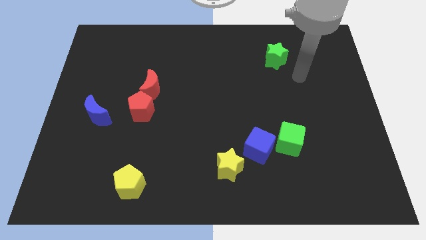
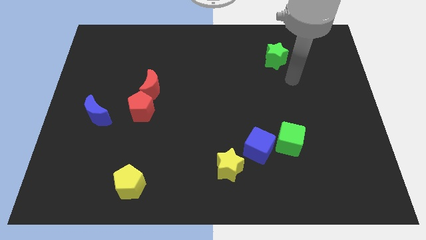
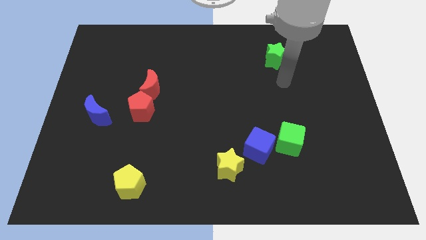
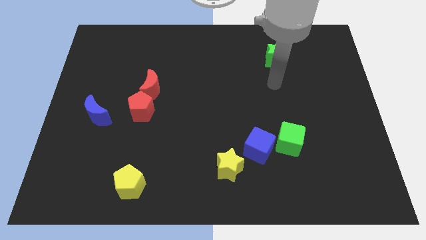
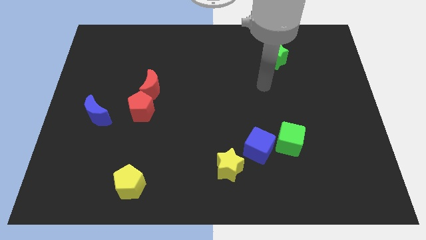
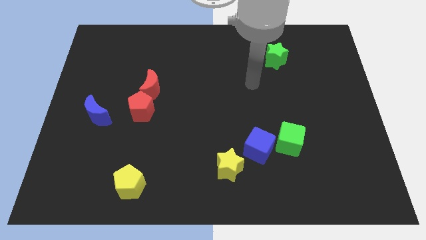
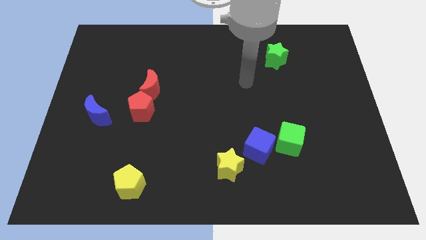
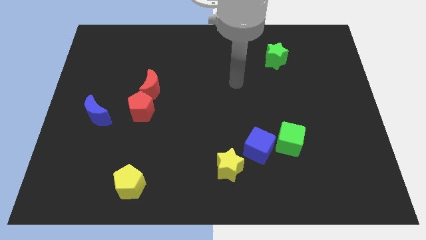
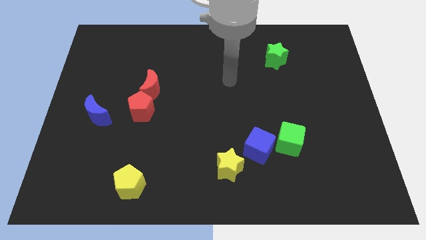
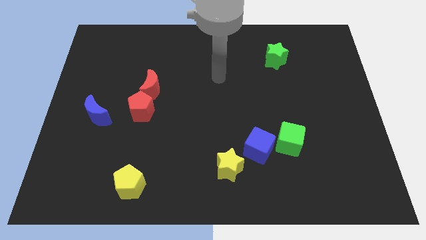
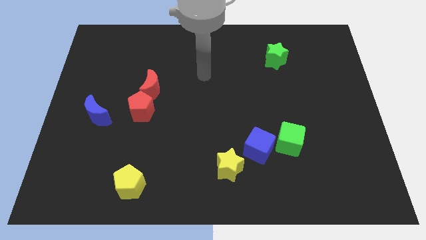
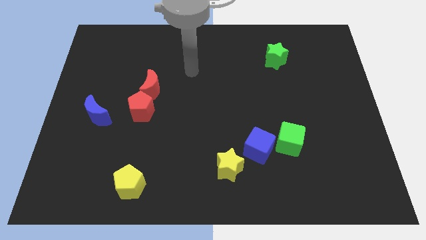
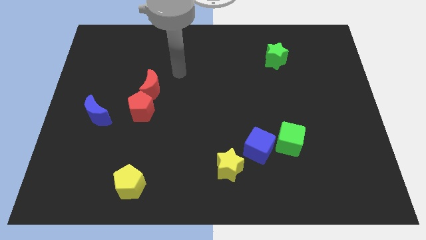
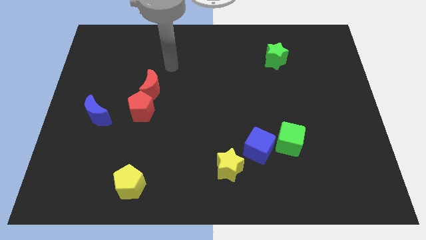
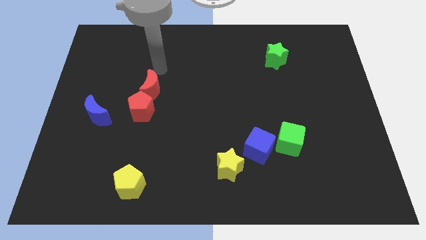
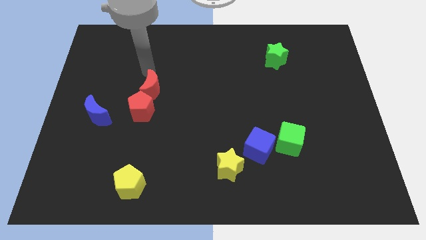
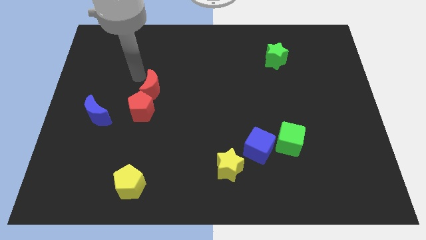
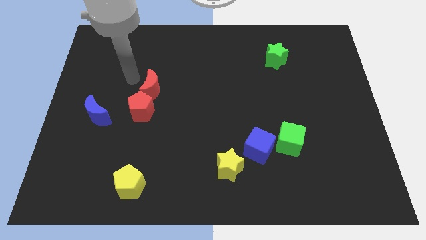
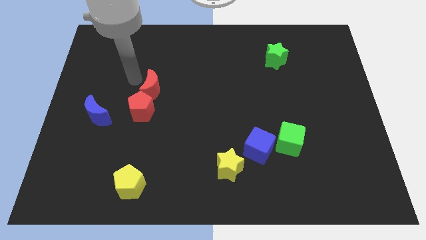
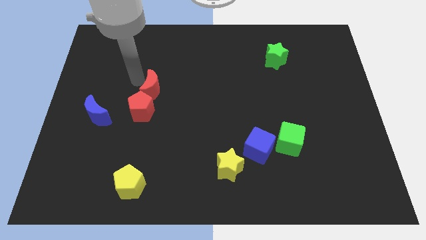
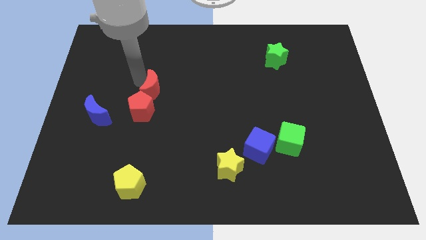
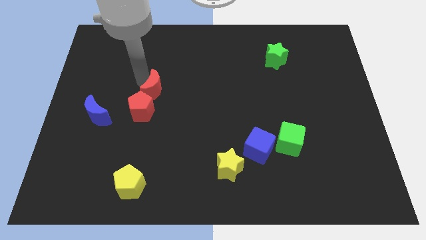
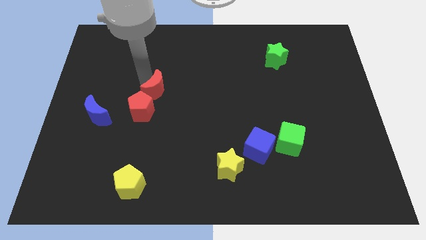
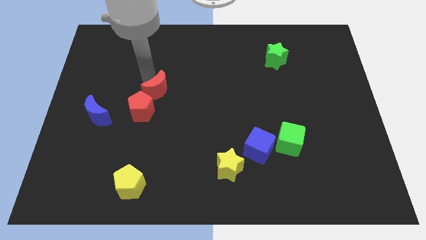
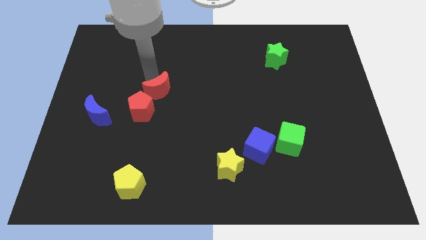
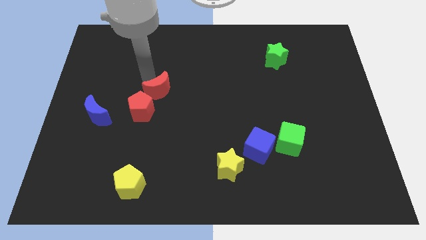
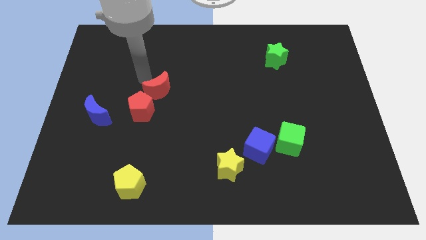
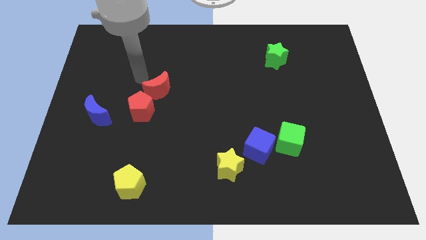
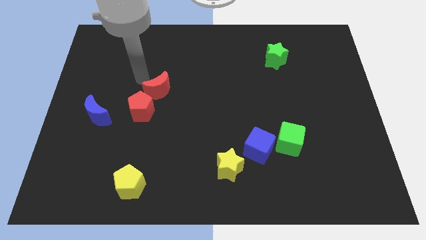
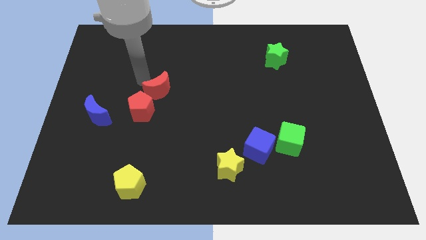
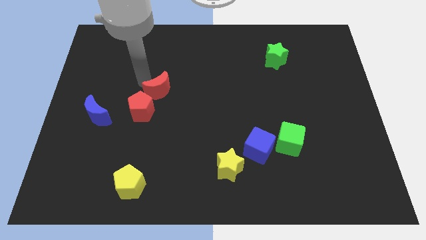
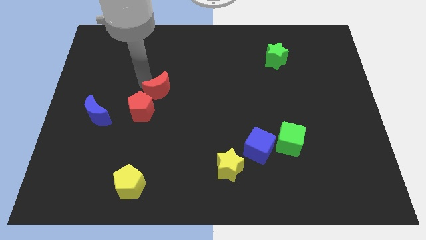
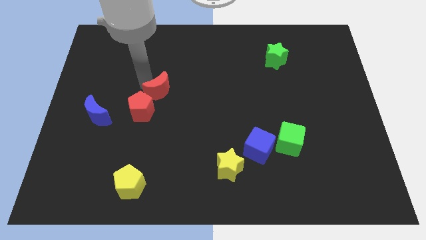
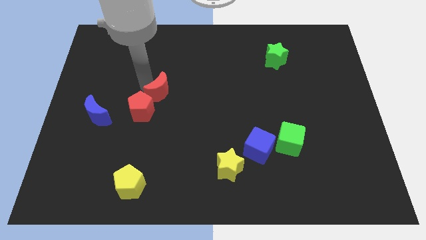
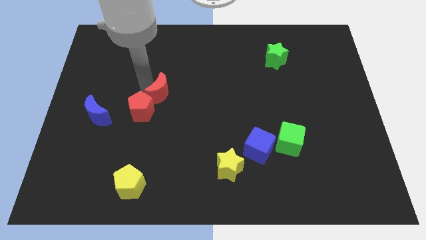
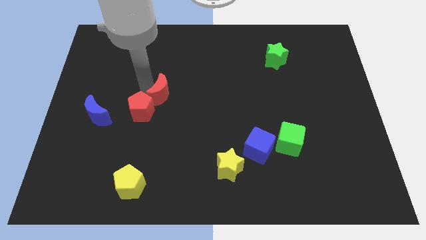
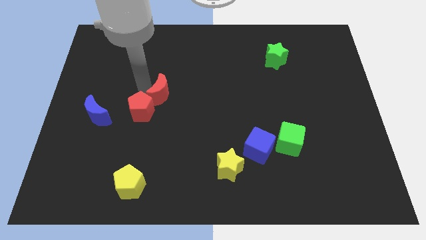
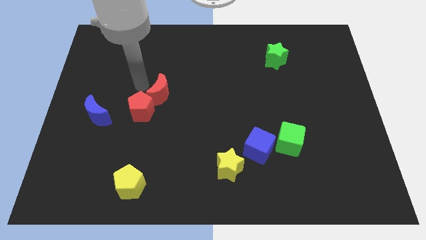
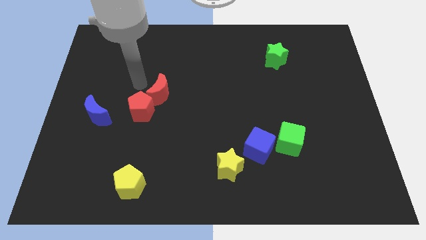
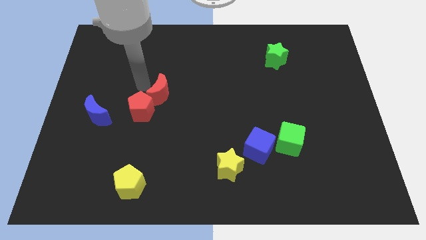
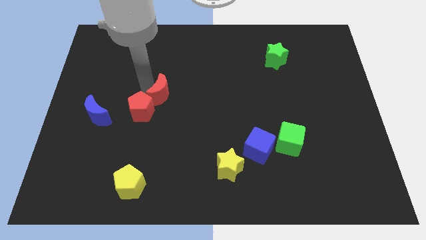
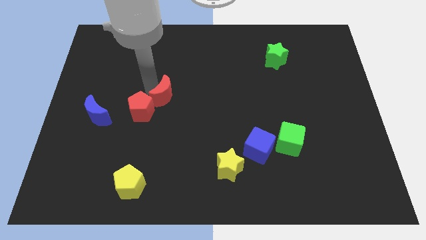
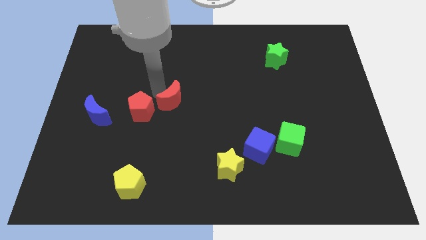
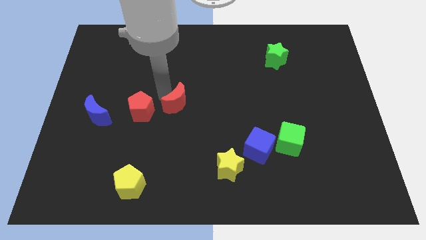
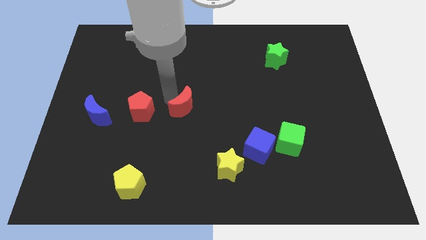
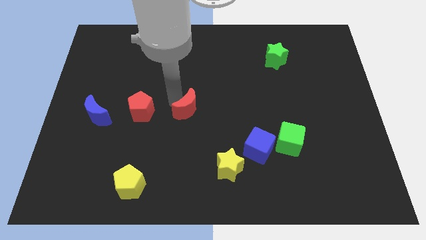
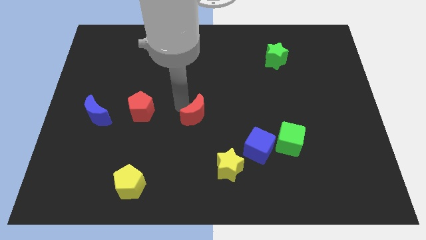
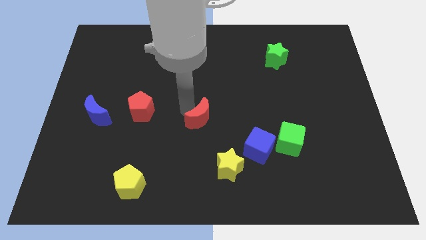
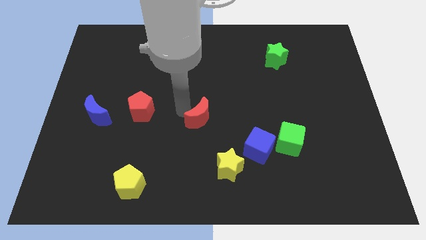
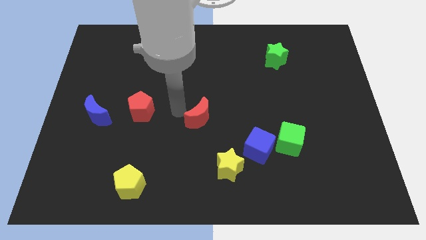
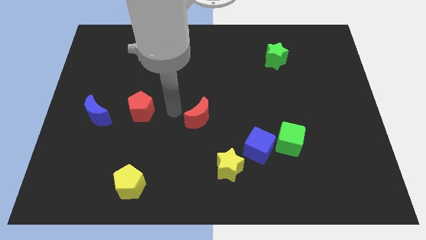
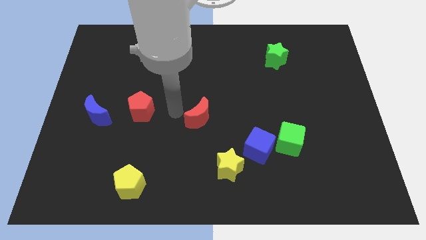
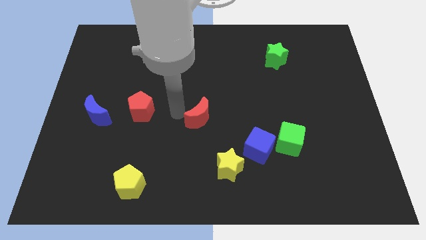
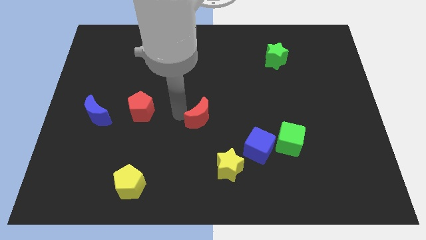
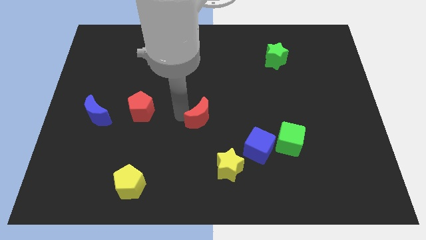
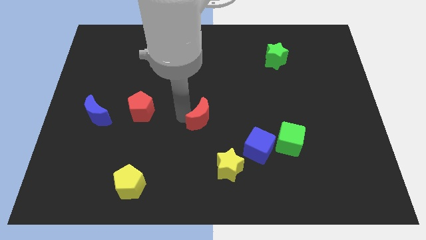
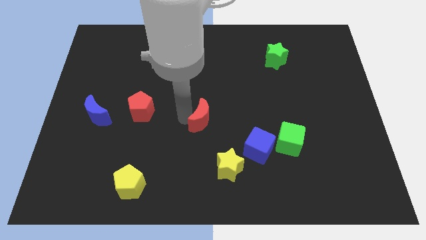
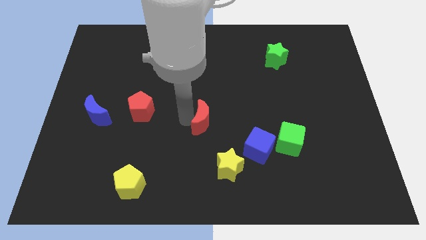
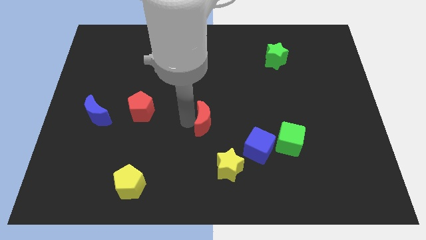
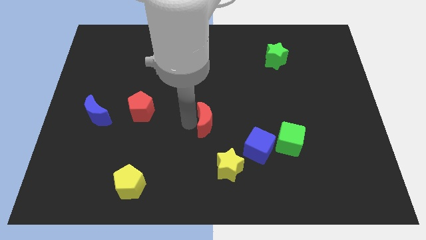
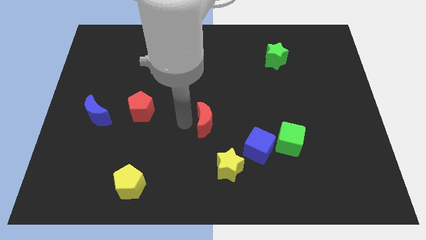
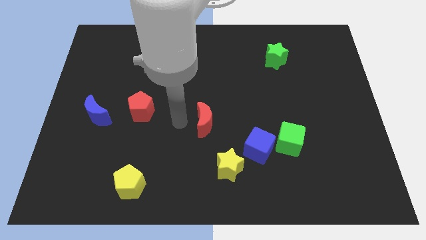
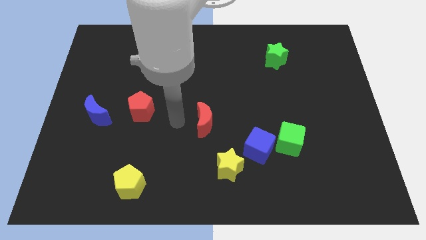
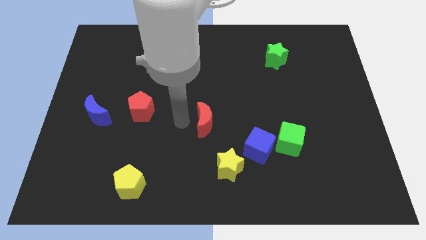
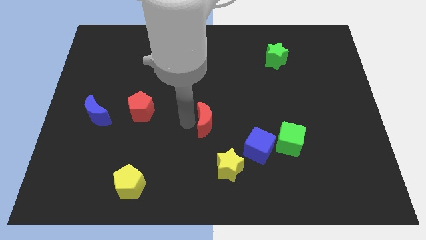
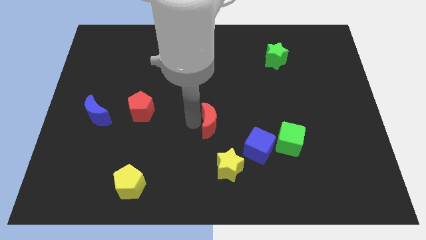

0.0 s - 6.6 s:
slide the red moon to the top left side of the blue cube

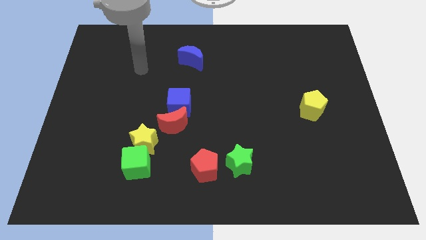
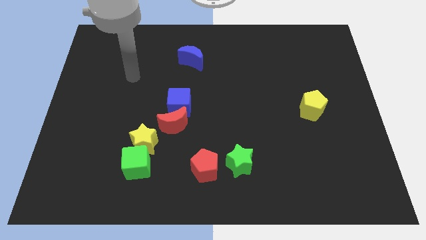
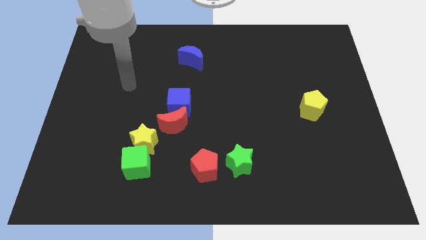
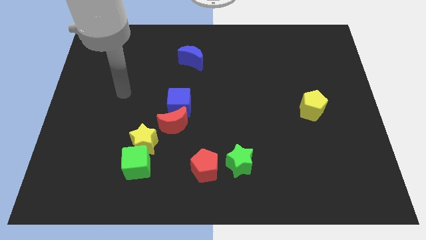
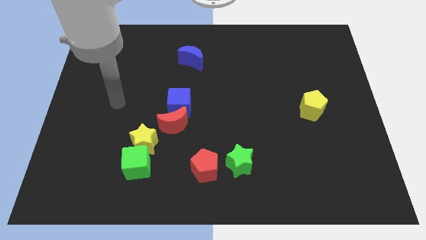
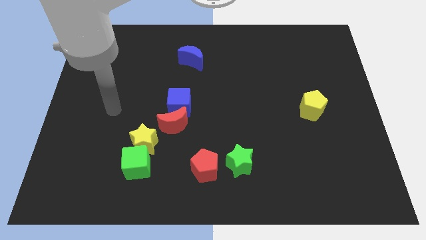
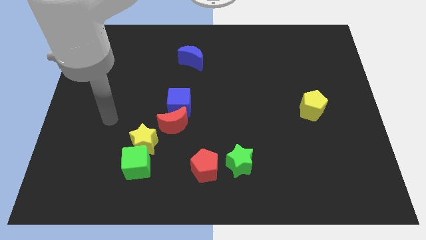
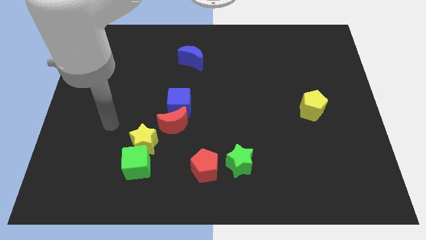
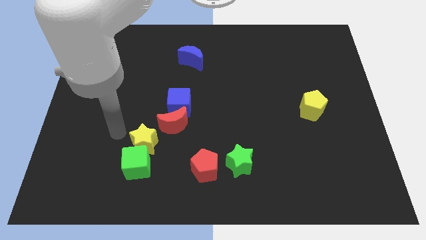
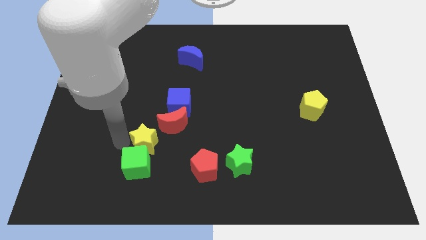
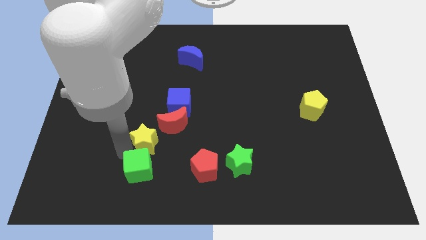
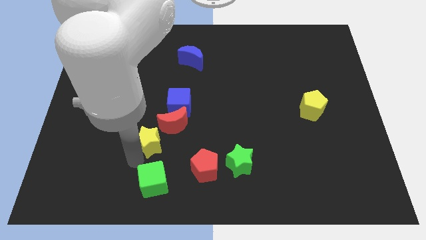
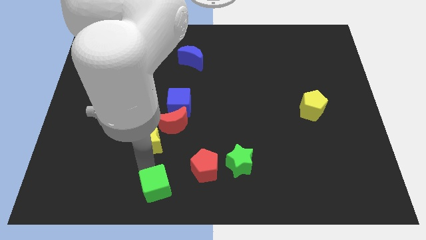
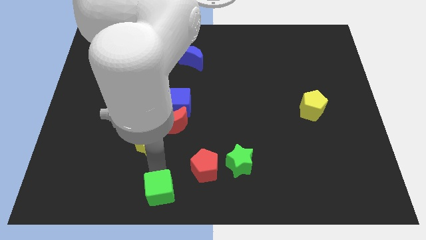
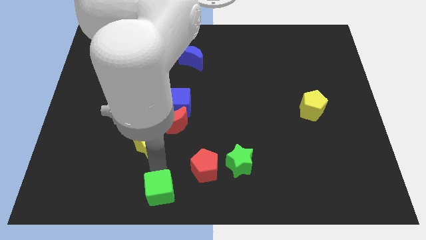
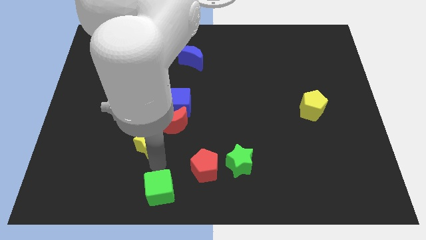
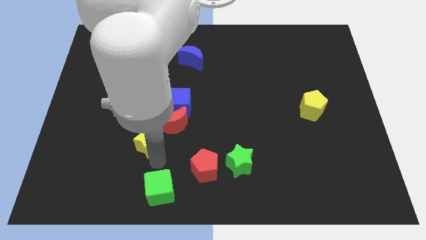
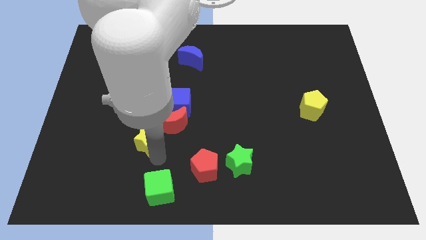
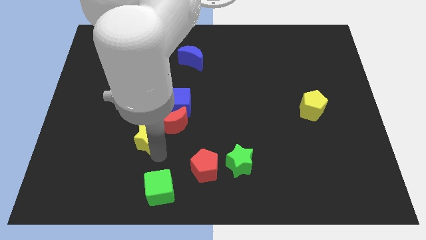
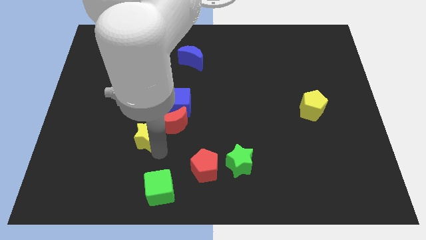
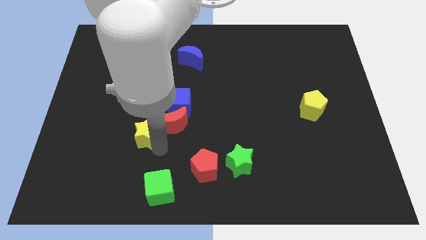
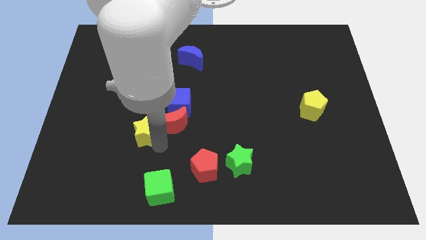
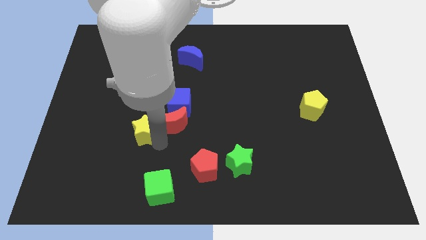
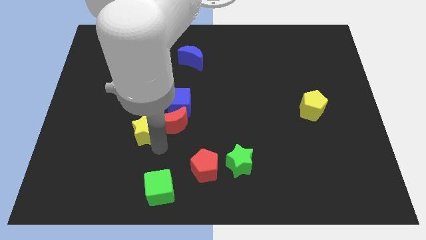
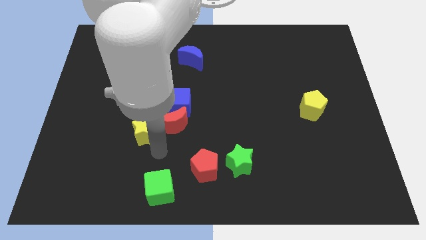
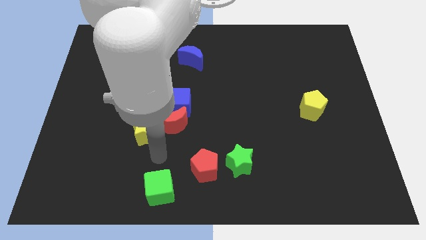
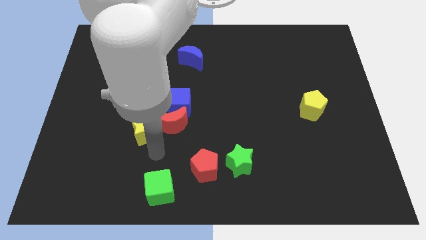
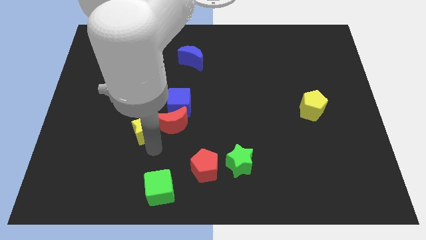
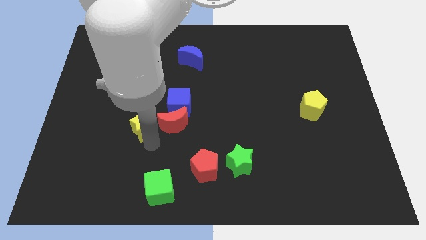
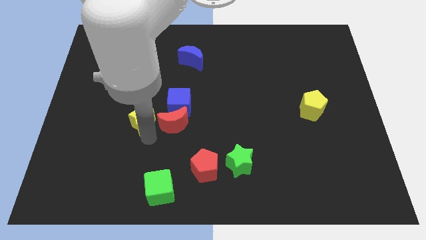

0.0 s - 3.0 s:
put the yellow star to the left side of the blue cube
